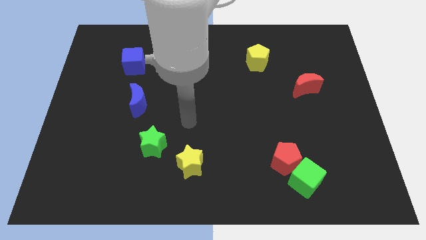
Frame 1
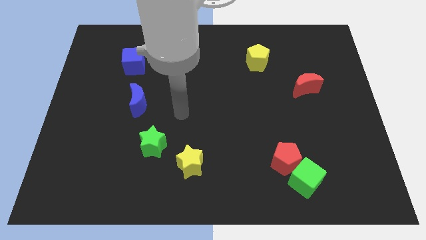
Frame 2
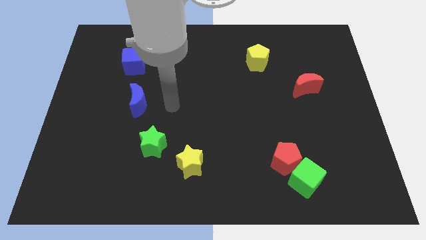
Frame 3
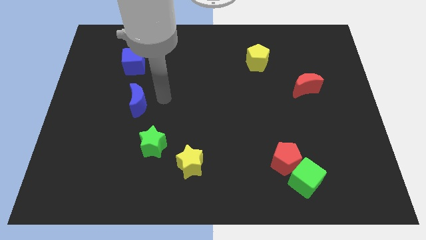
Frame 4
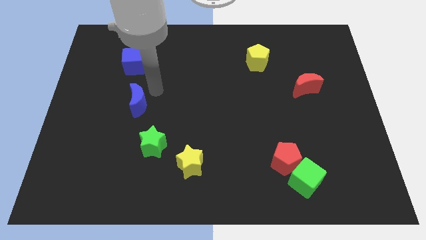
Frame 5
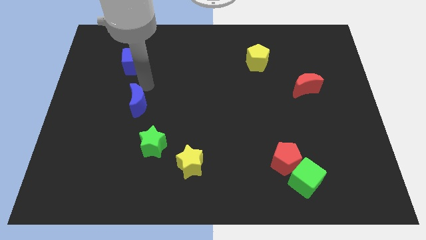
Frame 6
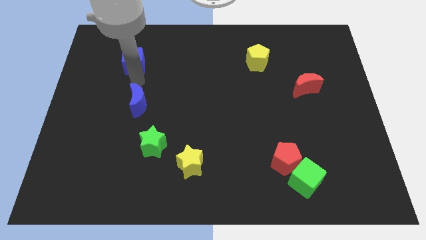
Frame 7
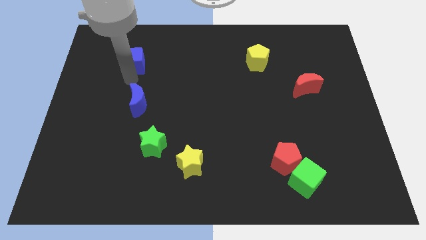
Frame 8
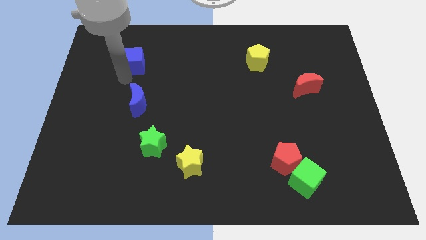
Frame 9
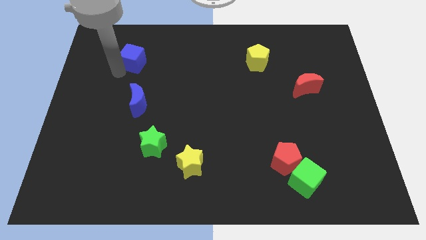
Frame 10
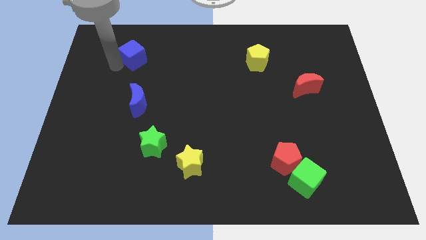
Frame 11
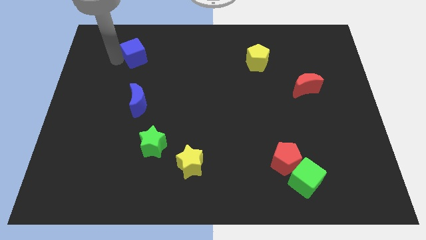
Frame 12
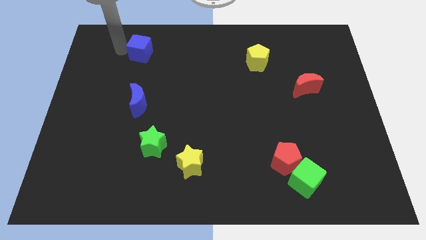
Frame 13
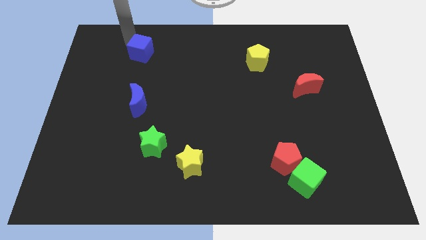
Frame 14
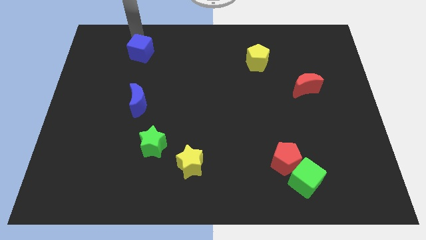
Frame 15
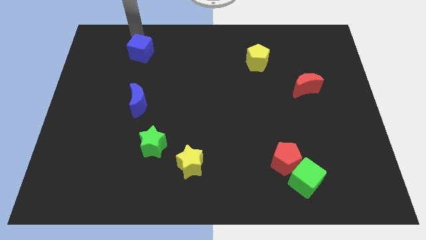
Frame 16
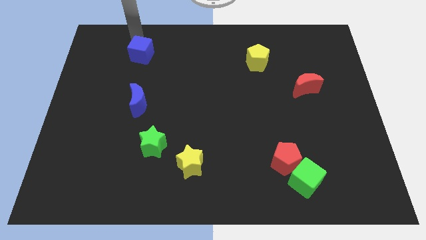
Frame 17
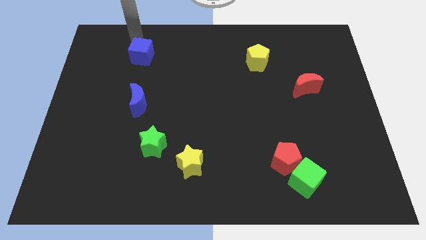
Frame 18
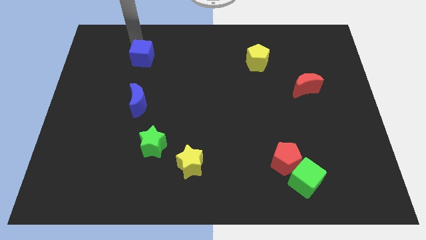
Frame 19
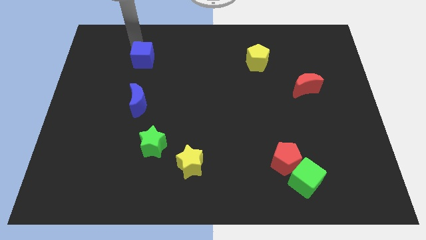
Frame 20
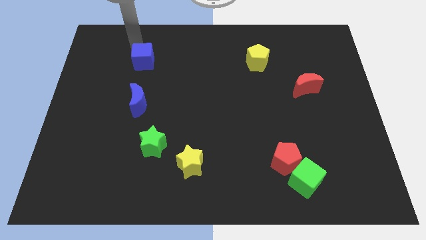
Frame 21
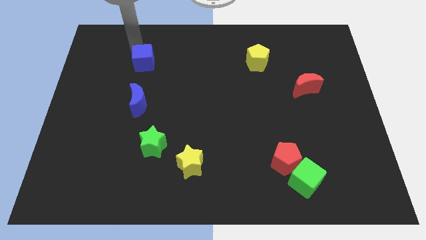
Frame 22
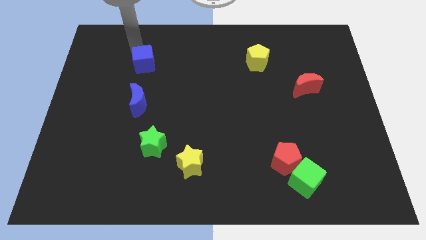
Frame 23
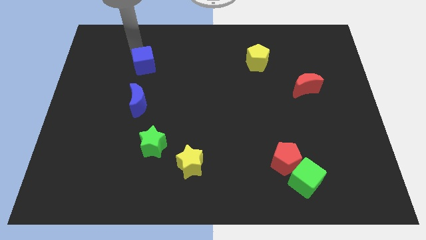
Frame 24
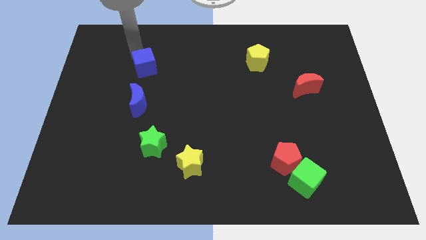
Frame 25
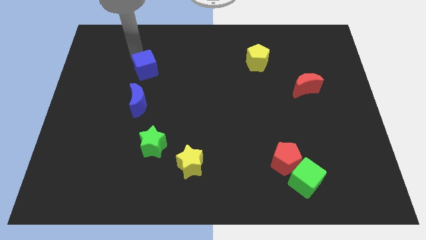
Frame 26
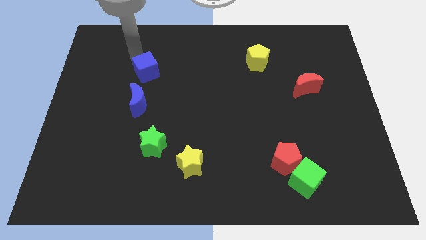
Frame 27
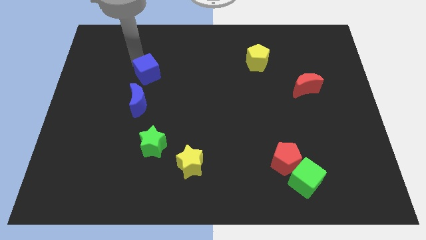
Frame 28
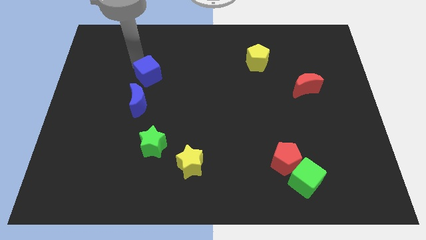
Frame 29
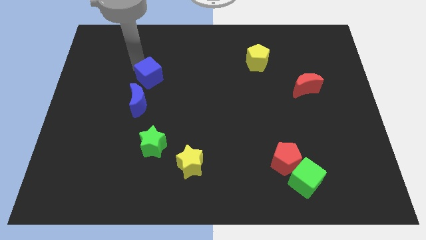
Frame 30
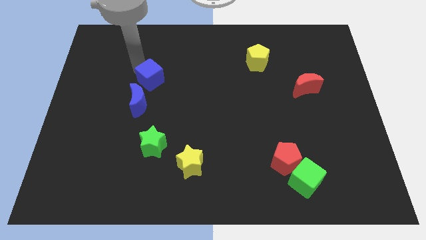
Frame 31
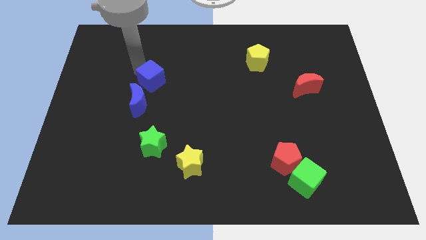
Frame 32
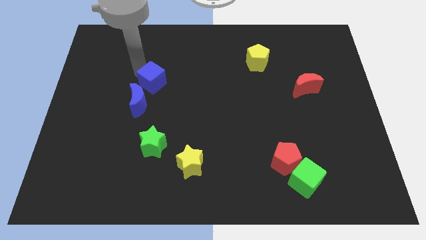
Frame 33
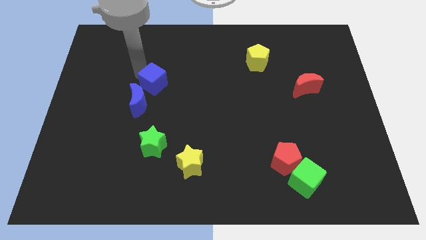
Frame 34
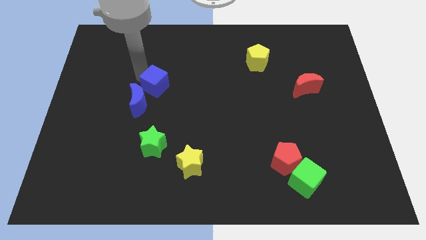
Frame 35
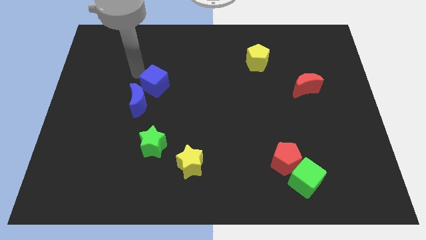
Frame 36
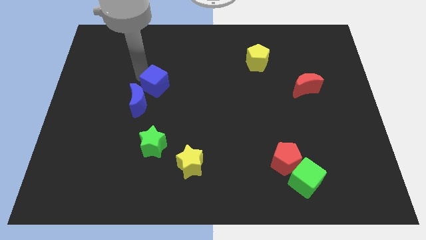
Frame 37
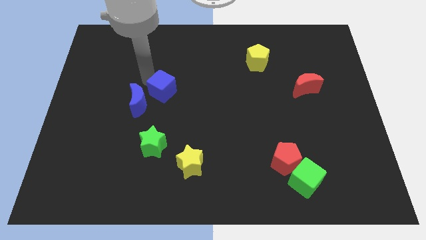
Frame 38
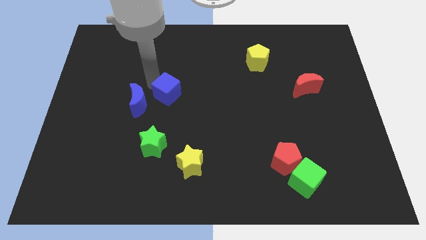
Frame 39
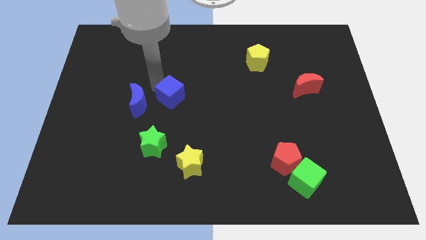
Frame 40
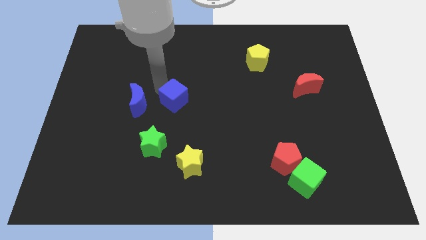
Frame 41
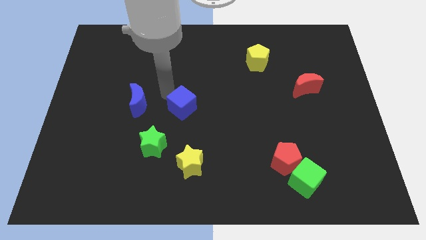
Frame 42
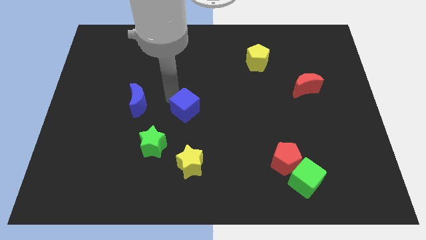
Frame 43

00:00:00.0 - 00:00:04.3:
move the blue cube down and then right

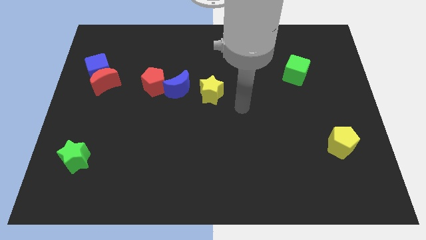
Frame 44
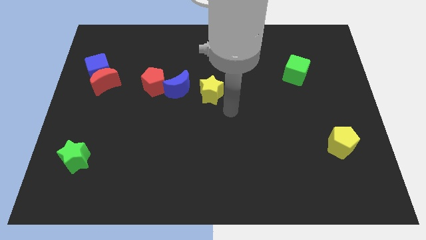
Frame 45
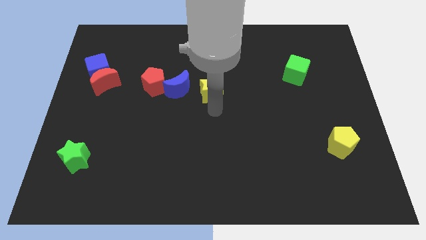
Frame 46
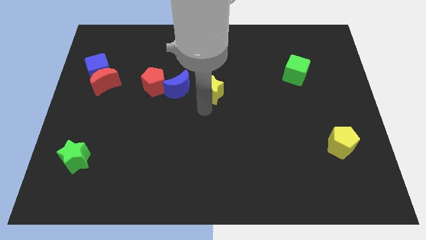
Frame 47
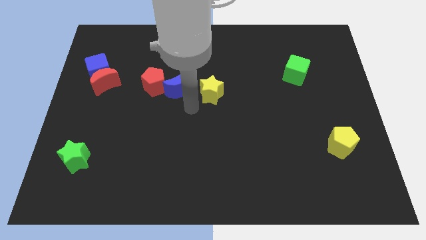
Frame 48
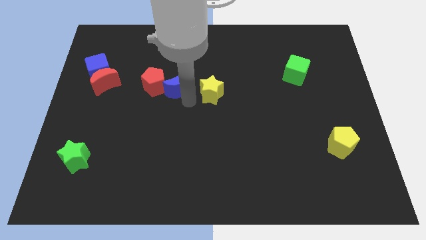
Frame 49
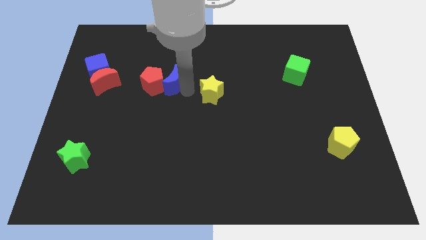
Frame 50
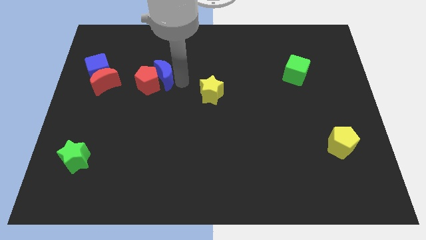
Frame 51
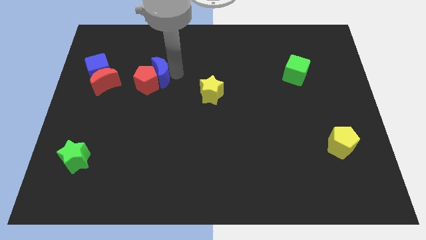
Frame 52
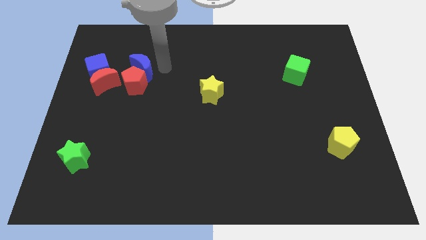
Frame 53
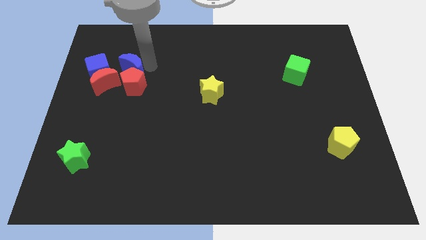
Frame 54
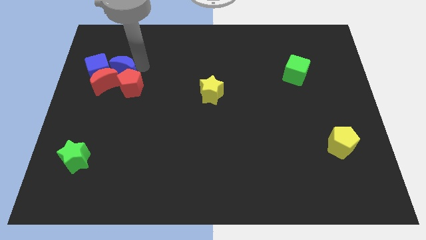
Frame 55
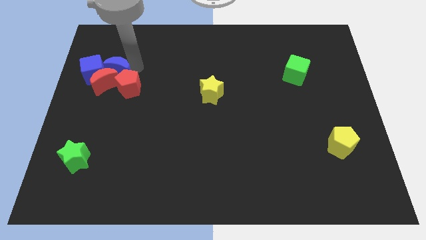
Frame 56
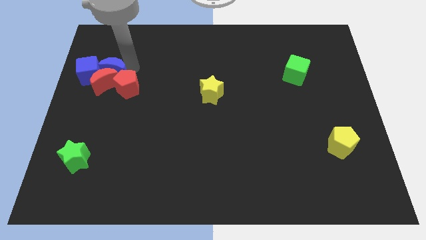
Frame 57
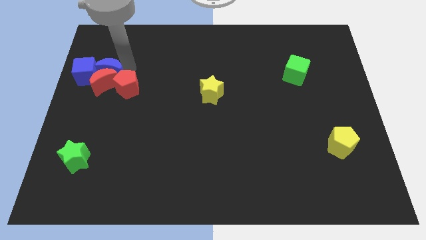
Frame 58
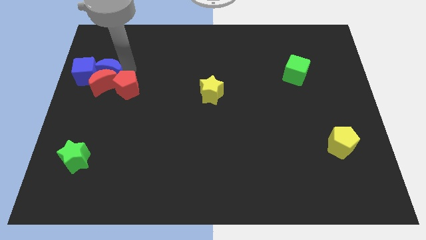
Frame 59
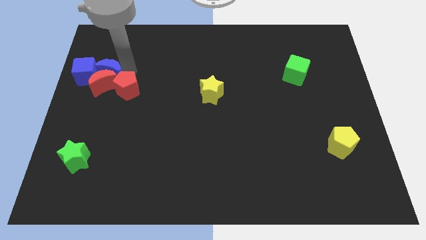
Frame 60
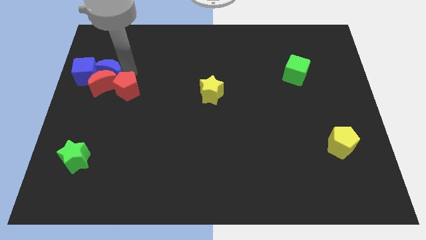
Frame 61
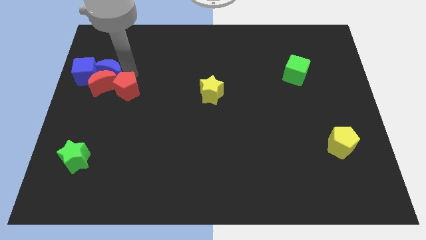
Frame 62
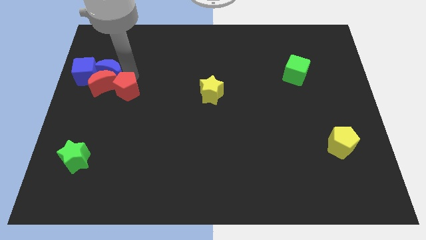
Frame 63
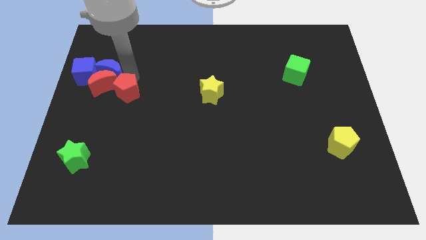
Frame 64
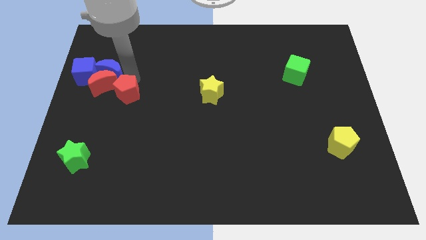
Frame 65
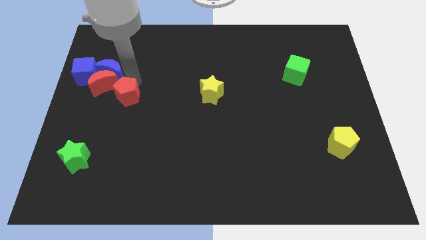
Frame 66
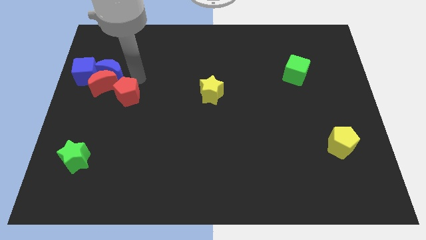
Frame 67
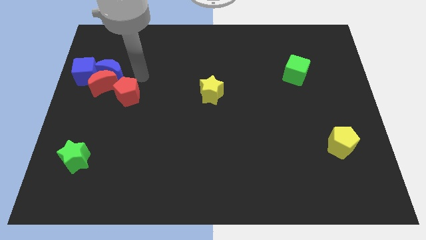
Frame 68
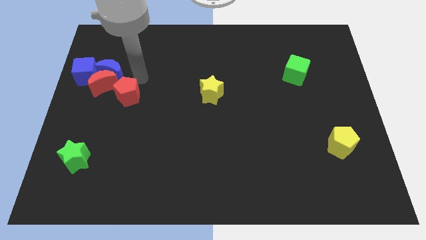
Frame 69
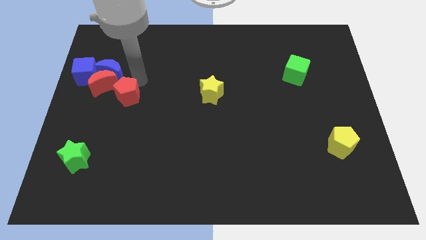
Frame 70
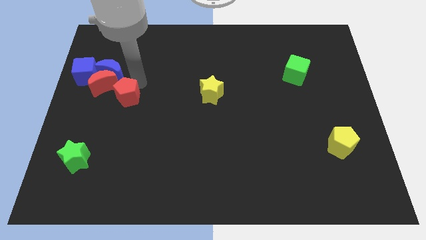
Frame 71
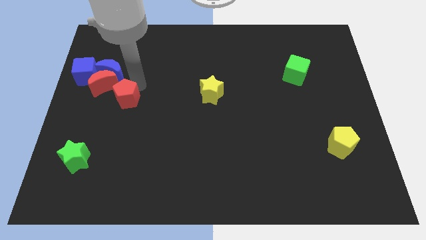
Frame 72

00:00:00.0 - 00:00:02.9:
slightly move the red pentagon downwards and to the left diagonally

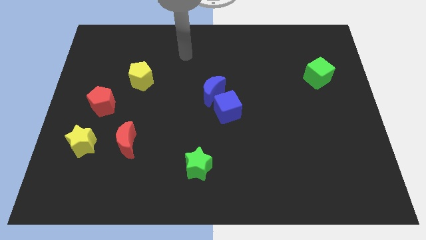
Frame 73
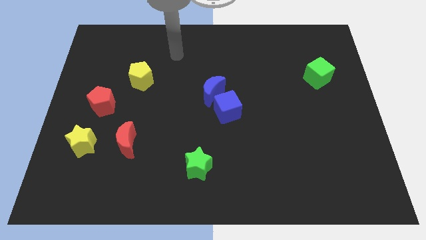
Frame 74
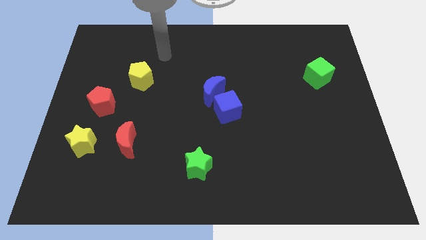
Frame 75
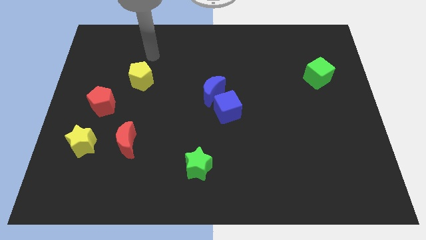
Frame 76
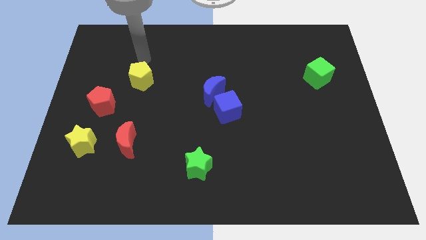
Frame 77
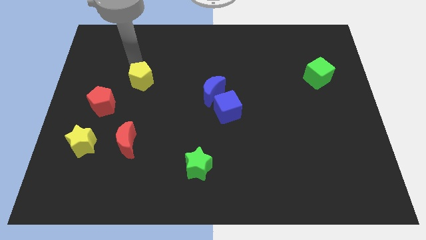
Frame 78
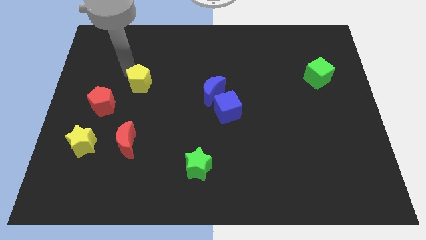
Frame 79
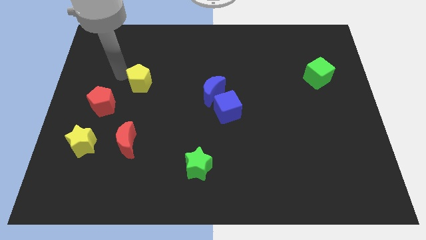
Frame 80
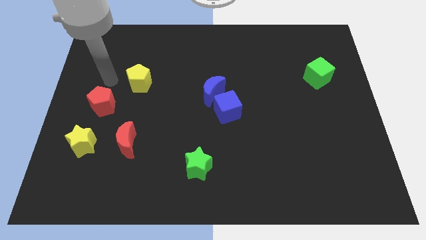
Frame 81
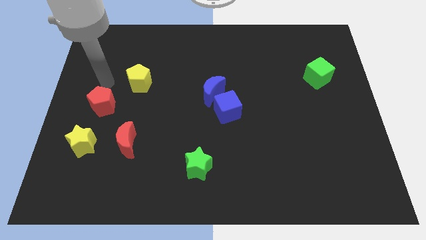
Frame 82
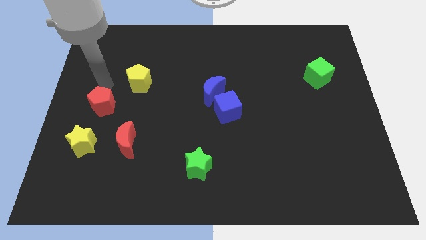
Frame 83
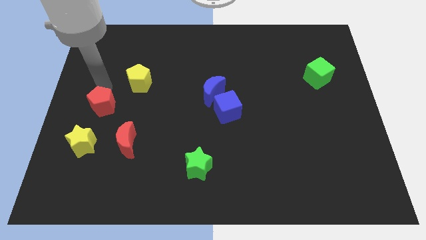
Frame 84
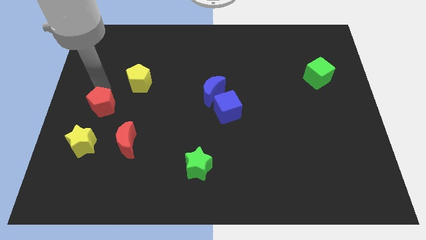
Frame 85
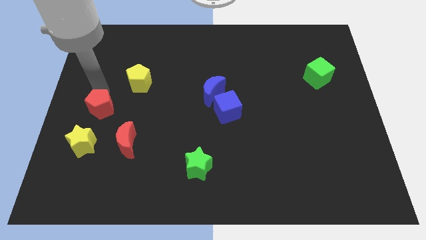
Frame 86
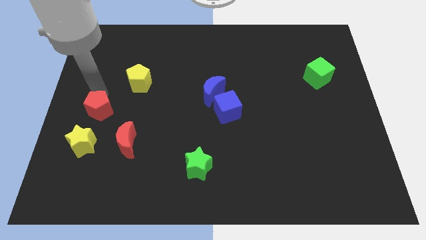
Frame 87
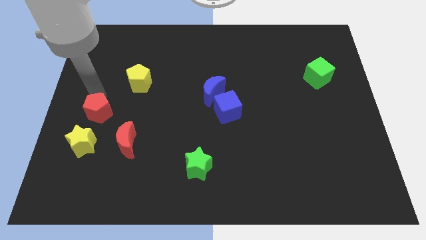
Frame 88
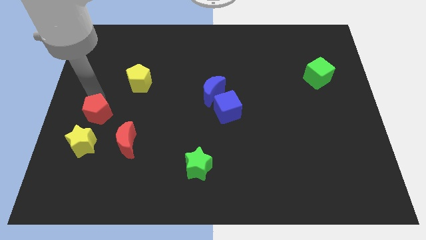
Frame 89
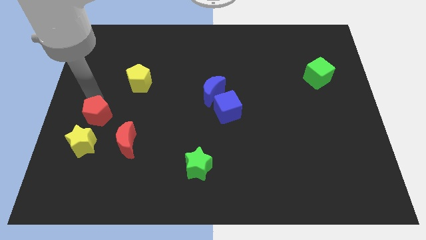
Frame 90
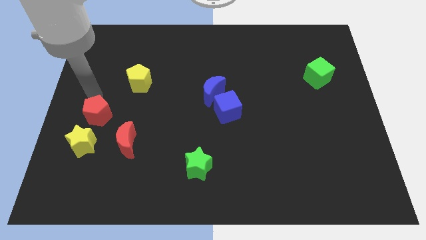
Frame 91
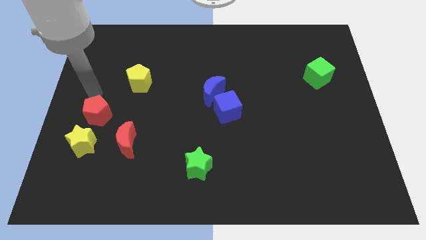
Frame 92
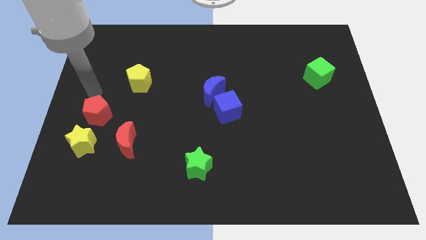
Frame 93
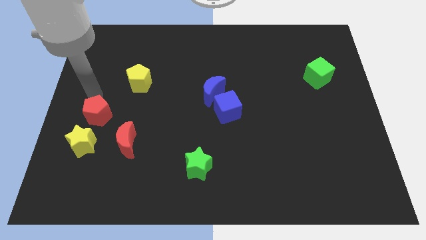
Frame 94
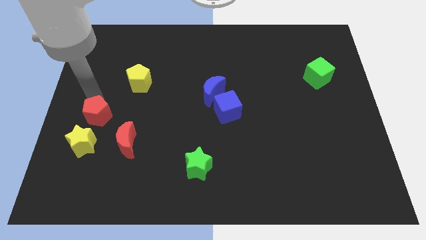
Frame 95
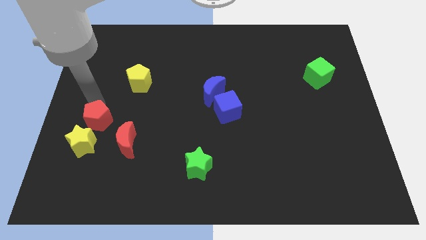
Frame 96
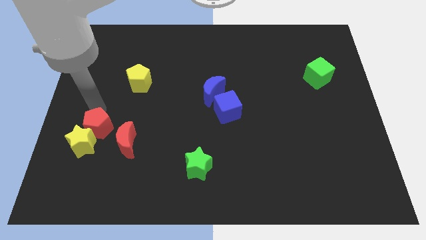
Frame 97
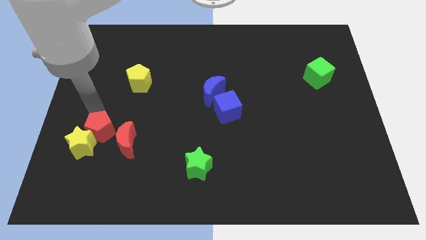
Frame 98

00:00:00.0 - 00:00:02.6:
slightly move the red pentagon downwards
